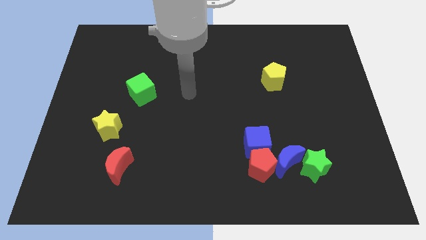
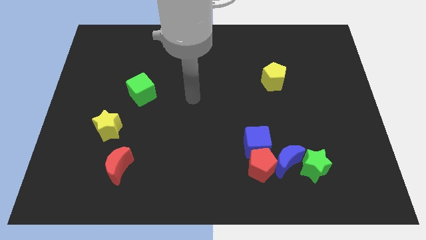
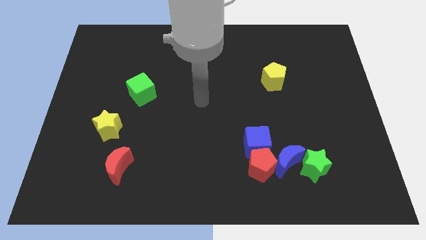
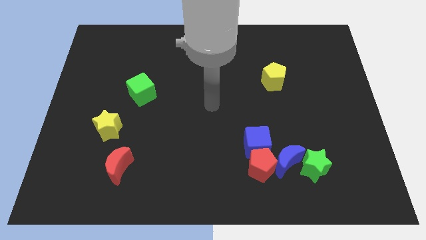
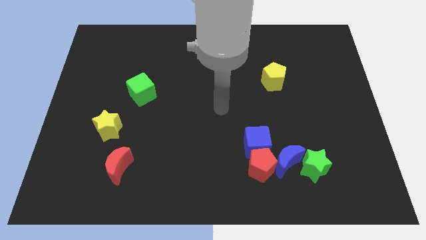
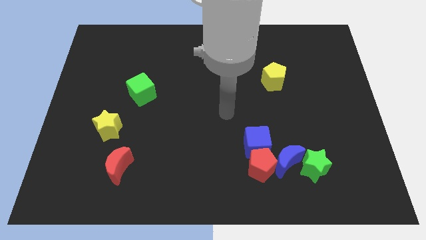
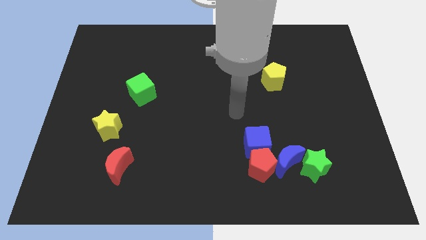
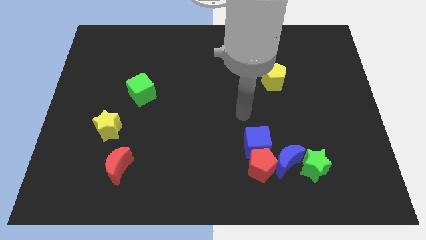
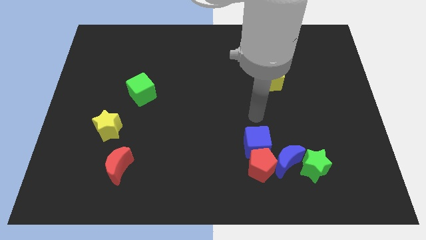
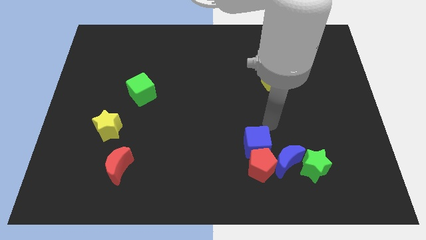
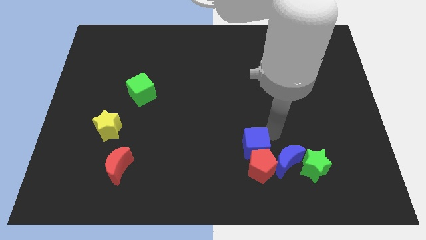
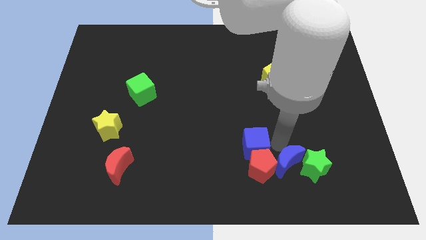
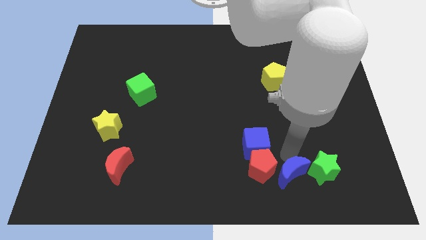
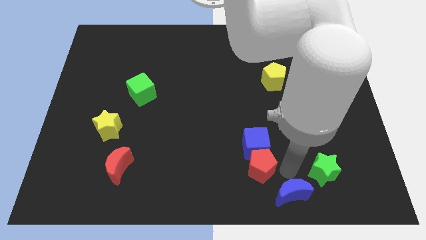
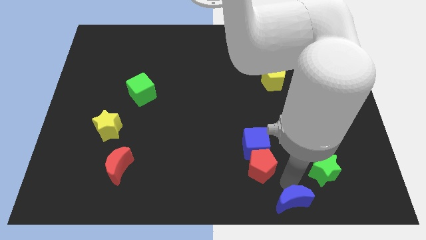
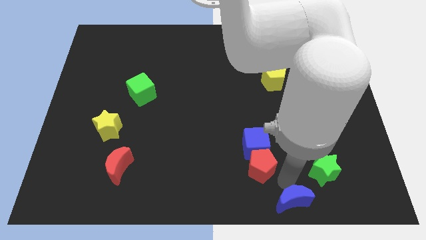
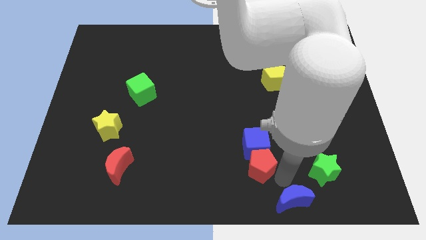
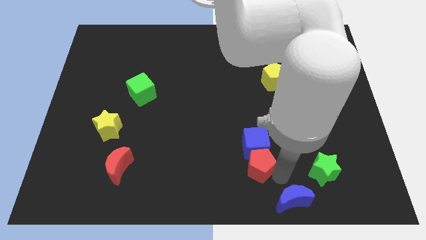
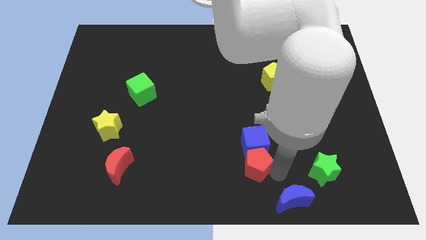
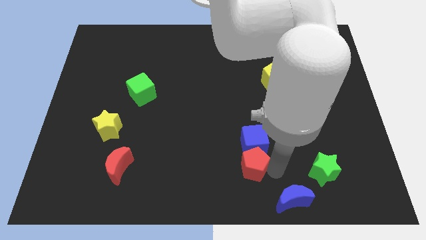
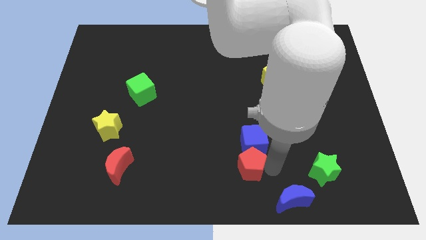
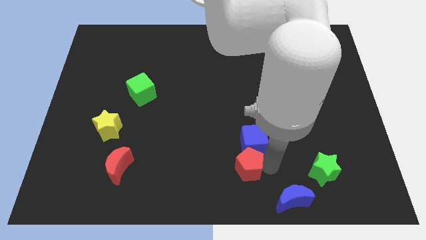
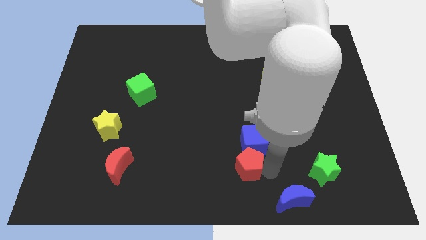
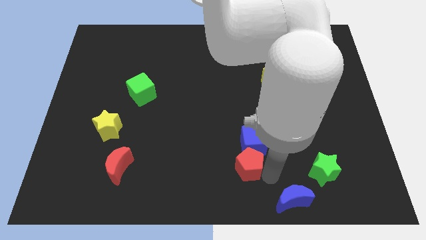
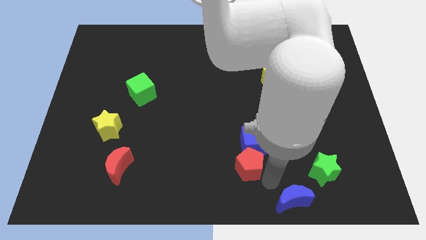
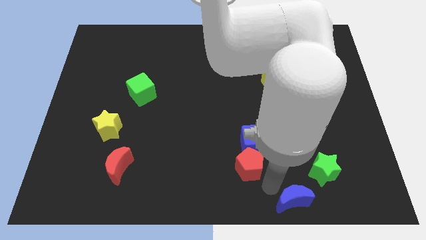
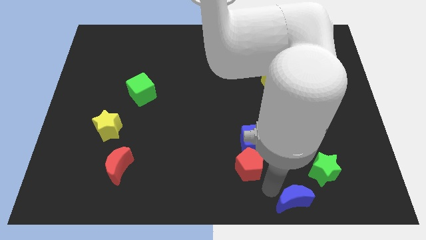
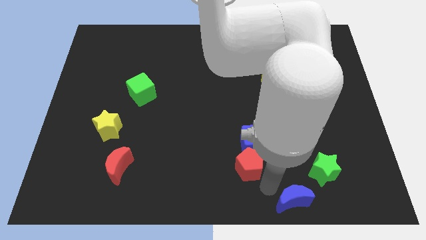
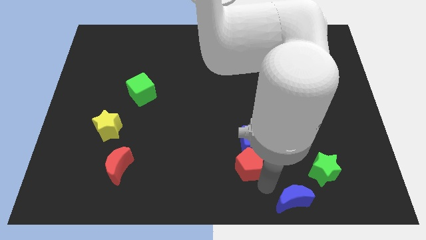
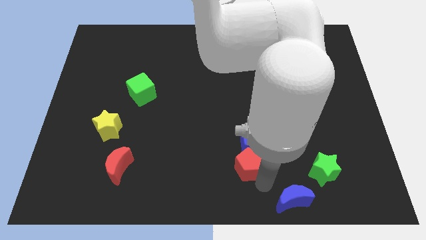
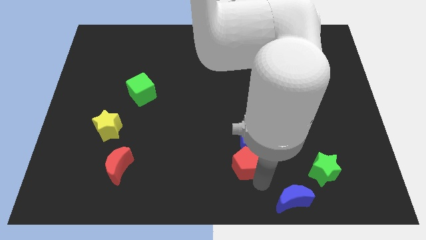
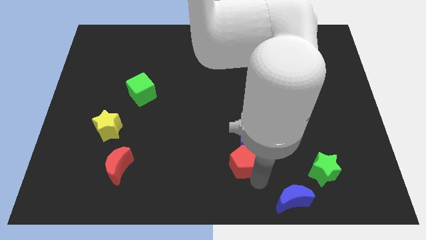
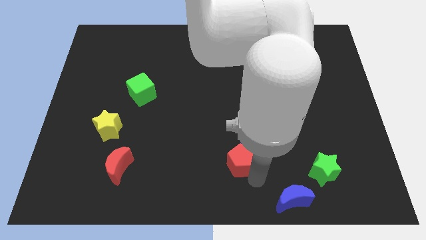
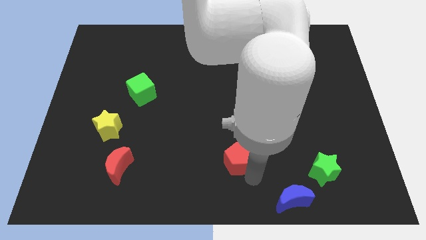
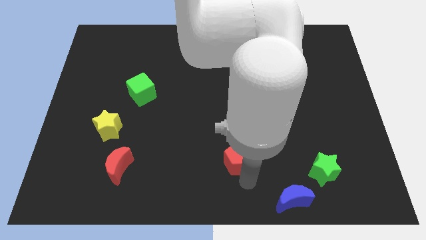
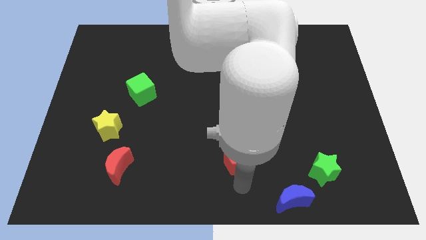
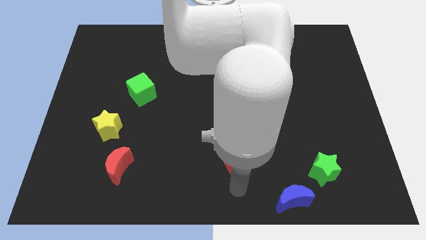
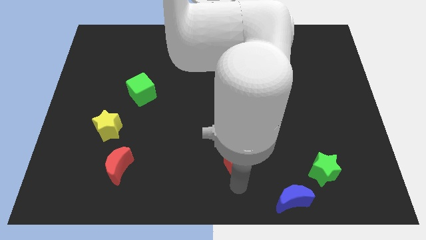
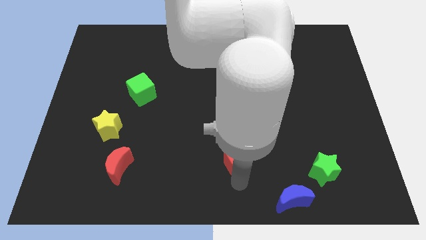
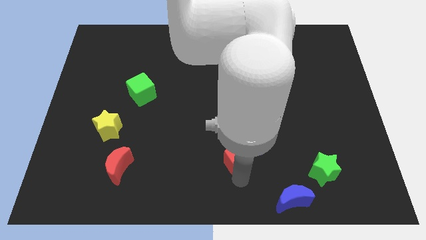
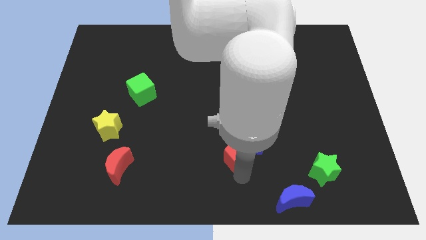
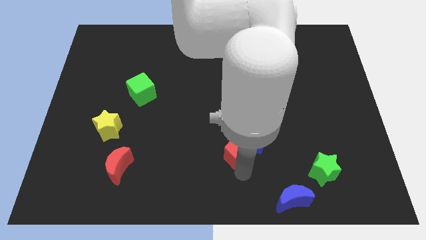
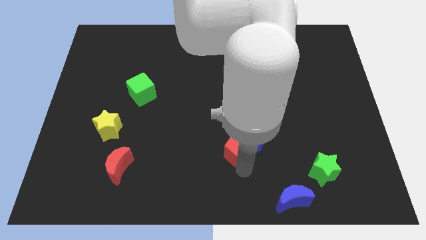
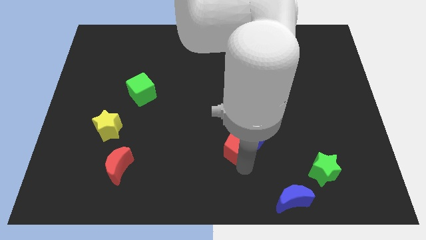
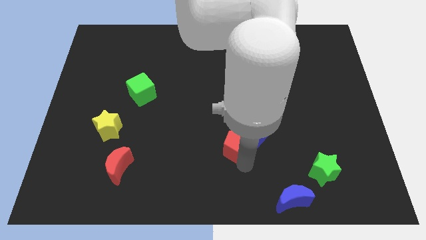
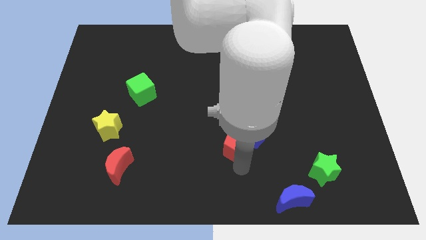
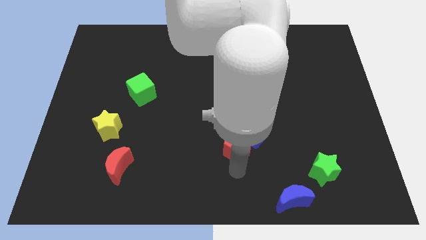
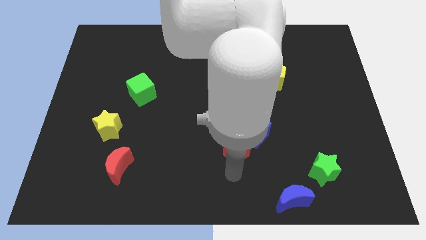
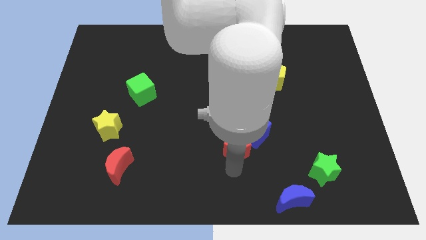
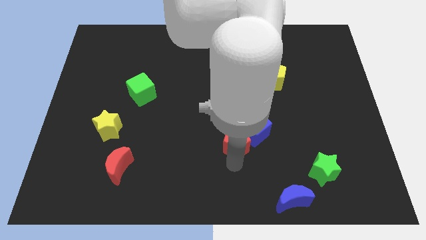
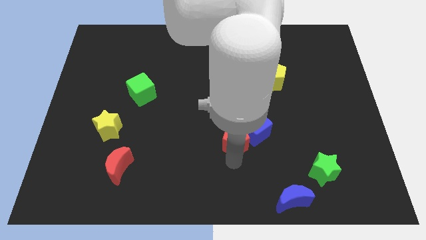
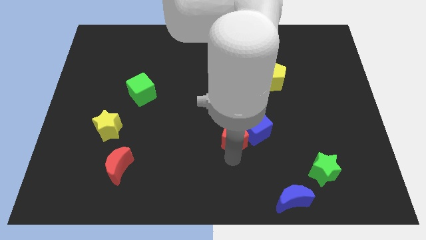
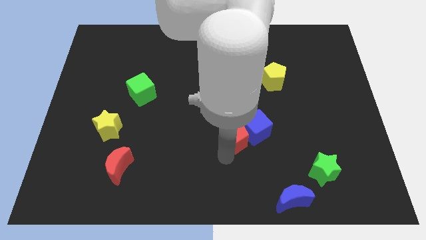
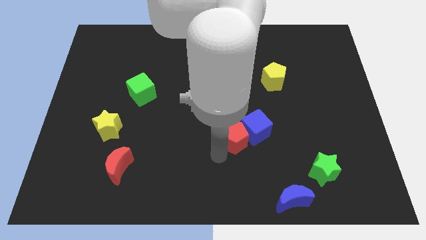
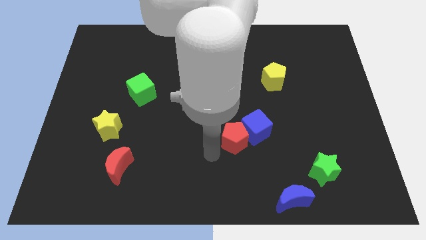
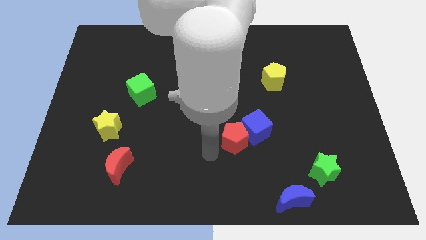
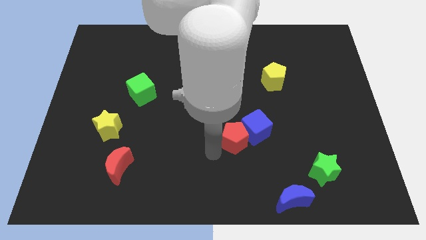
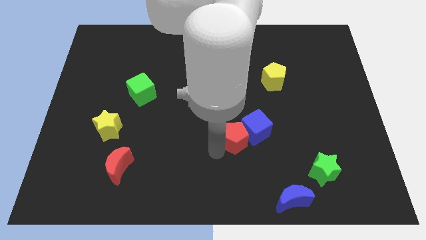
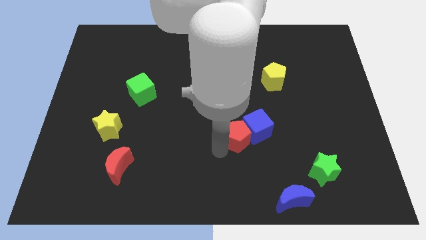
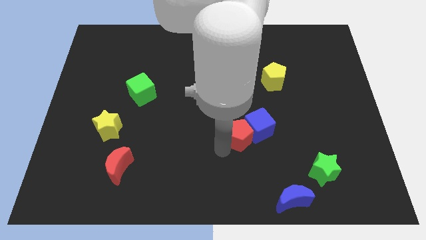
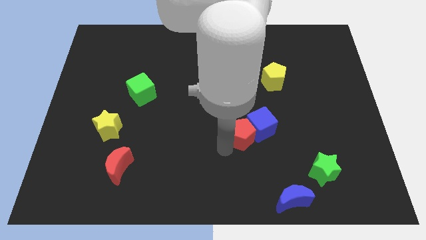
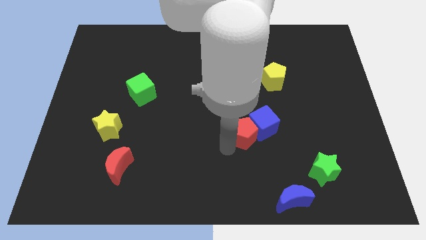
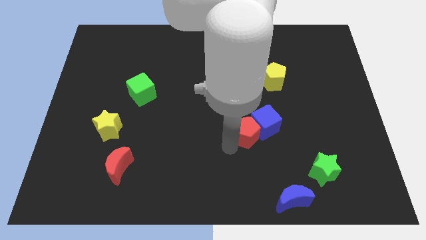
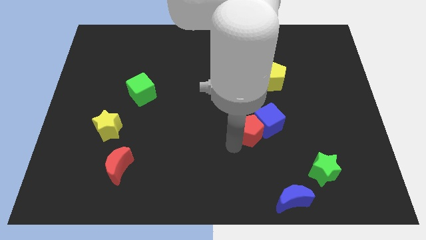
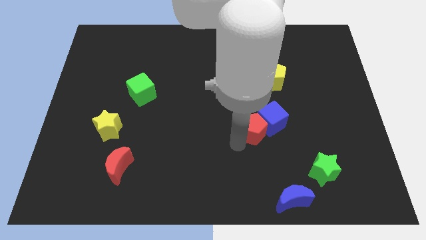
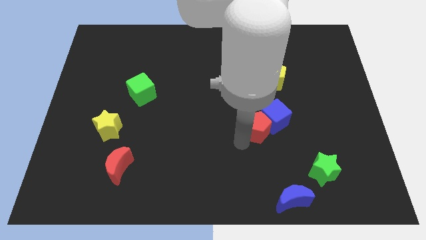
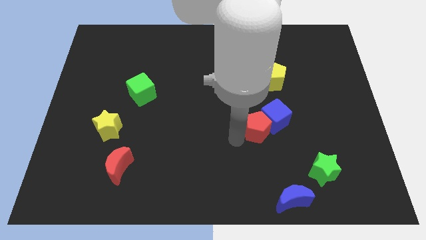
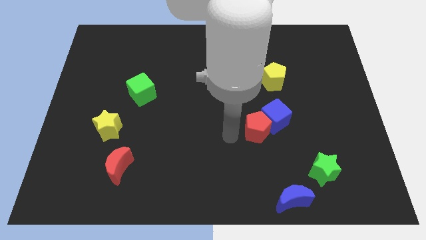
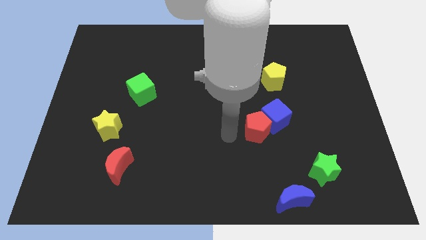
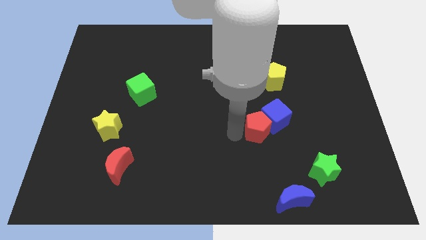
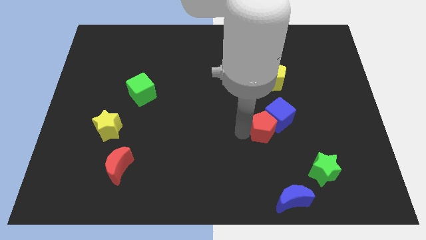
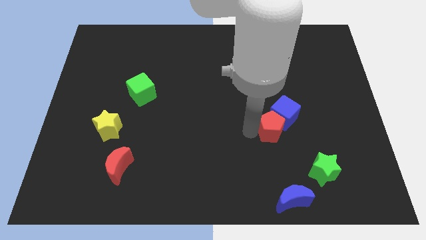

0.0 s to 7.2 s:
push the red pentagon a little bit diagonally upwards and to the right

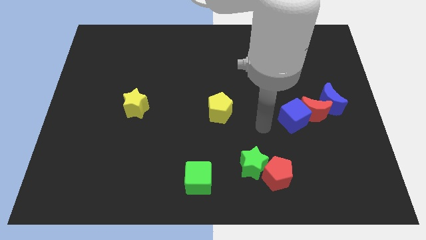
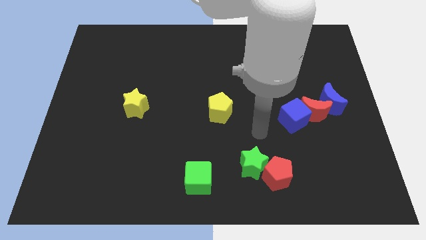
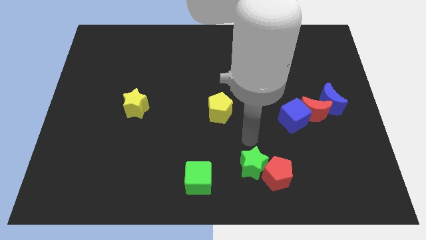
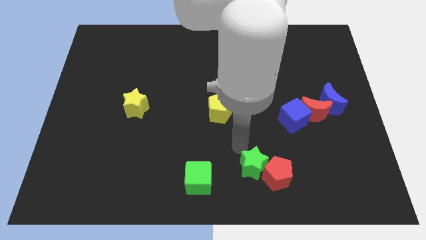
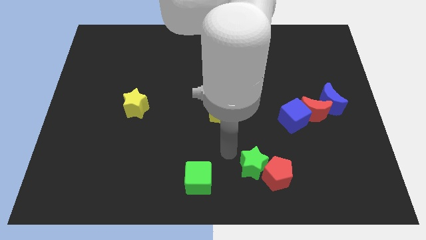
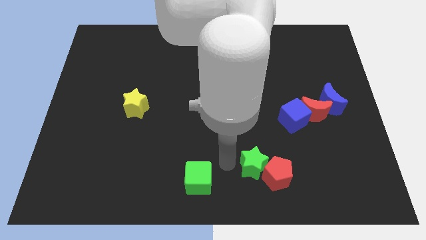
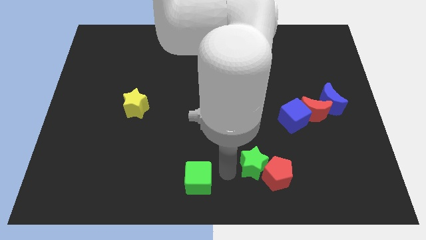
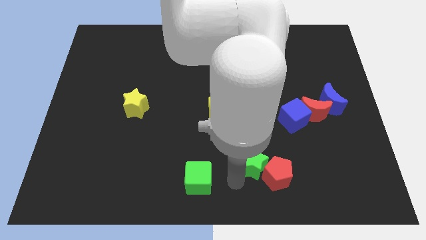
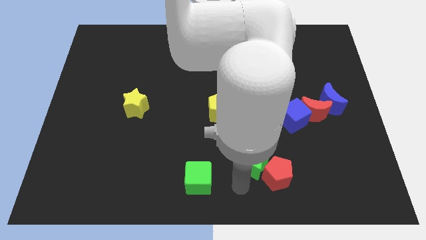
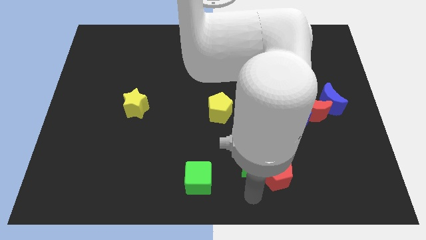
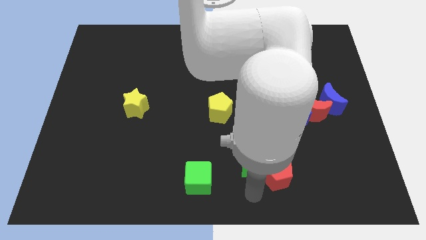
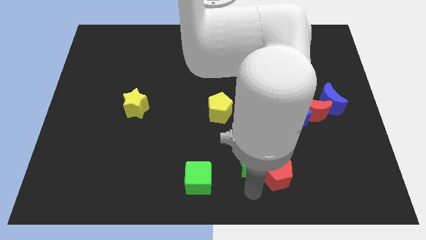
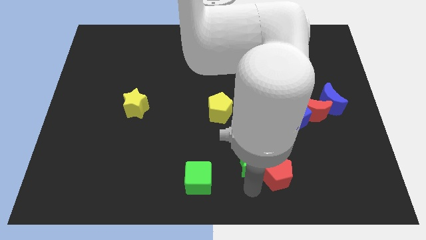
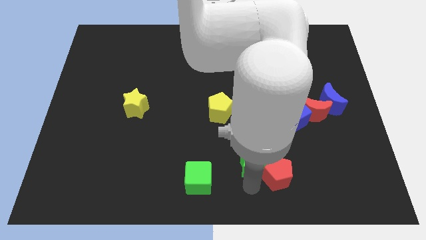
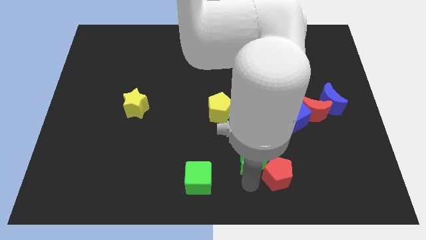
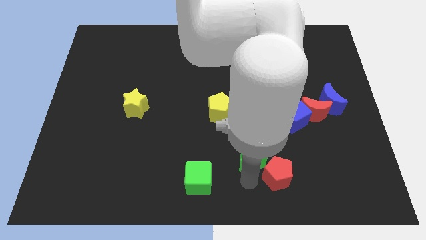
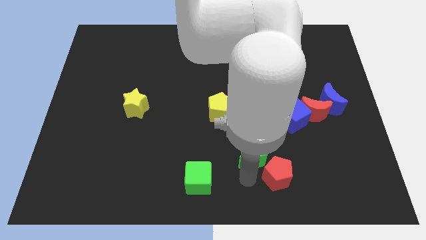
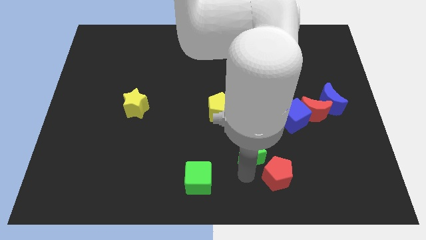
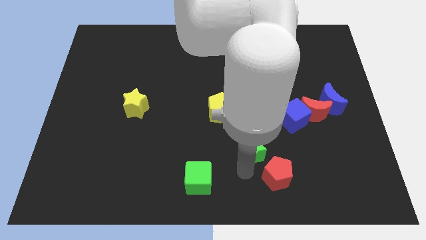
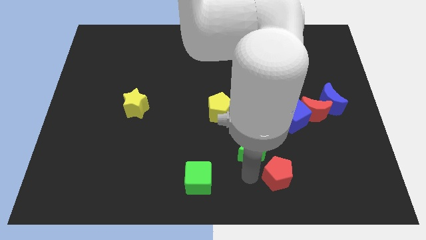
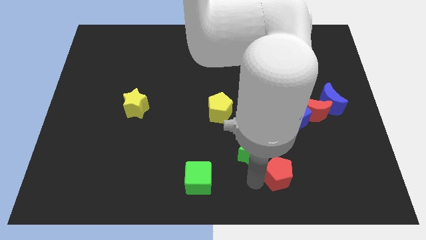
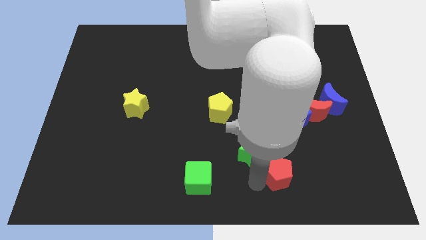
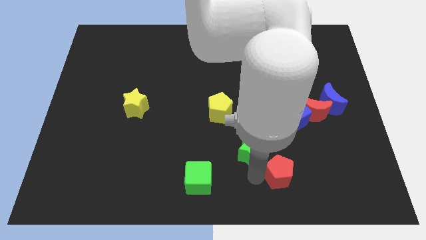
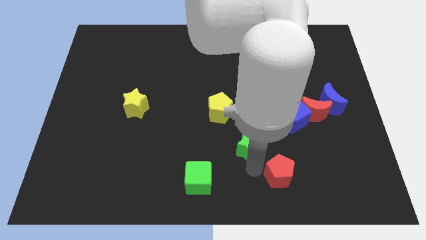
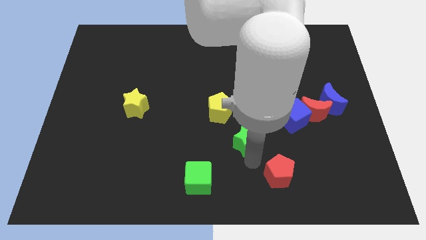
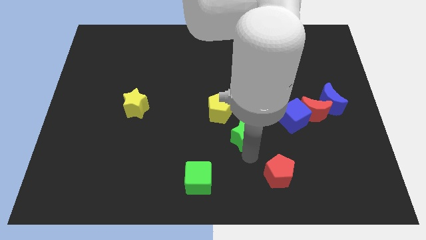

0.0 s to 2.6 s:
slightly move the green star up
